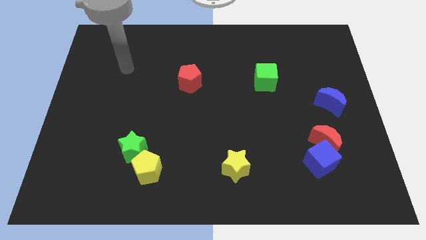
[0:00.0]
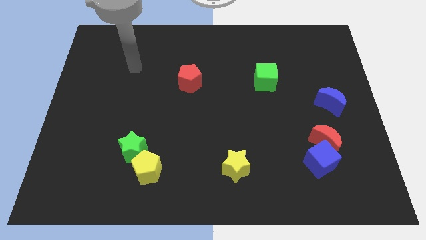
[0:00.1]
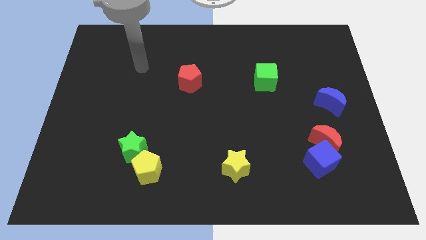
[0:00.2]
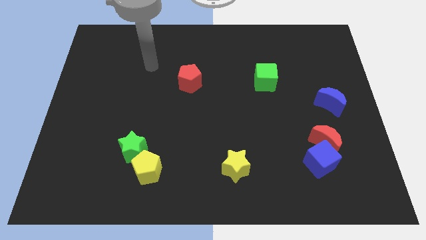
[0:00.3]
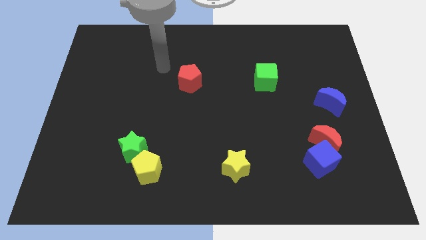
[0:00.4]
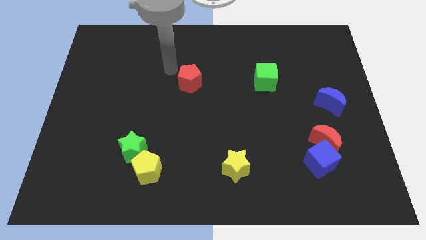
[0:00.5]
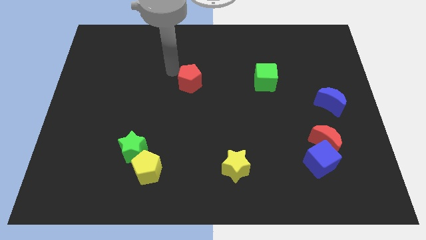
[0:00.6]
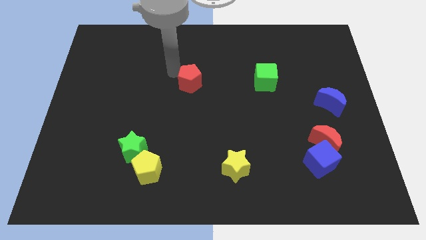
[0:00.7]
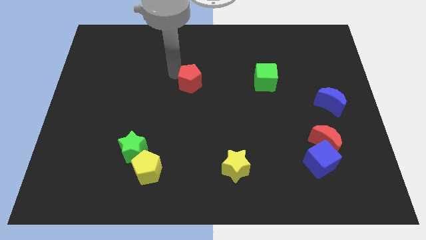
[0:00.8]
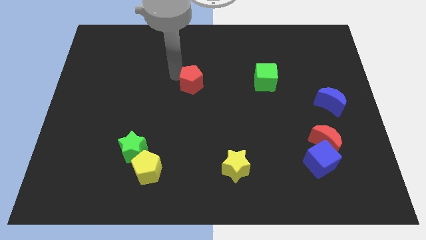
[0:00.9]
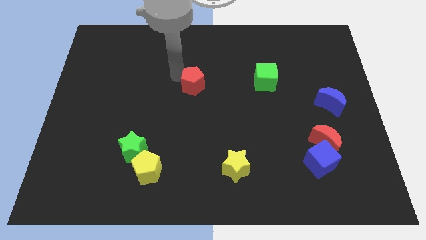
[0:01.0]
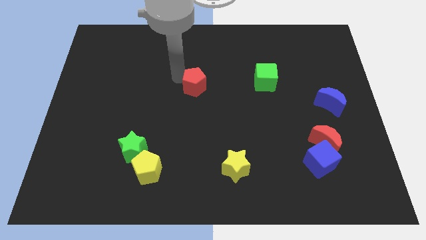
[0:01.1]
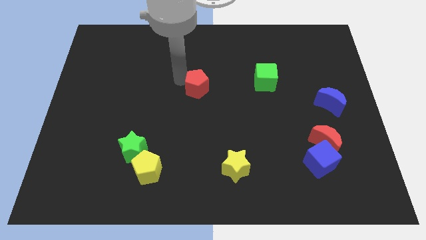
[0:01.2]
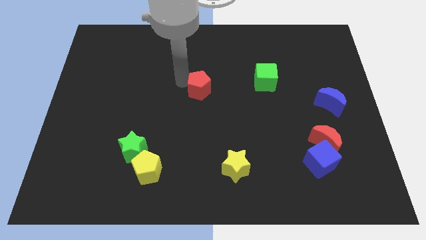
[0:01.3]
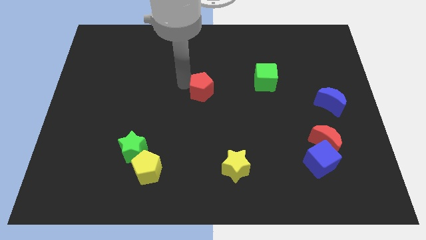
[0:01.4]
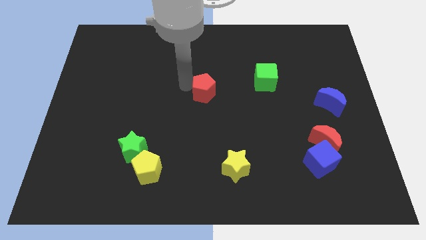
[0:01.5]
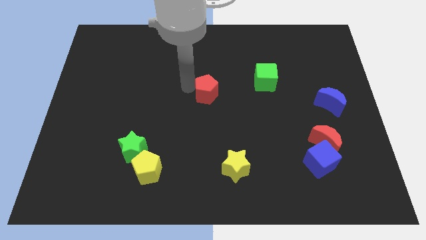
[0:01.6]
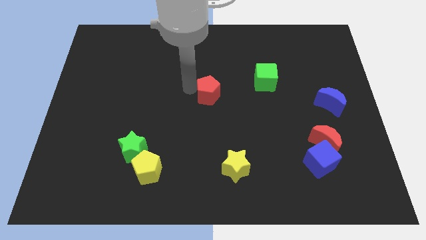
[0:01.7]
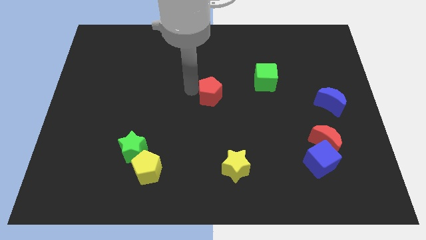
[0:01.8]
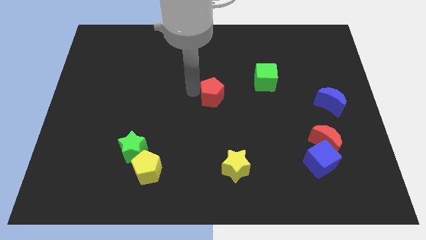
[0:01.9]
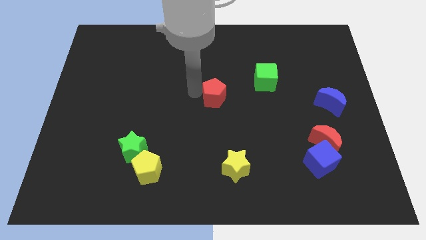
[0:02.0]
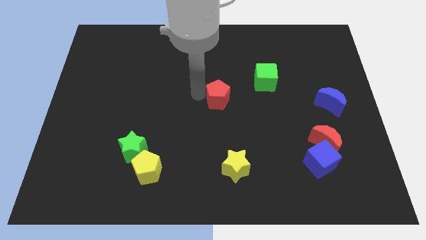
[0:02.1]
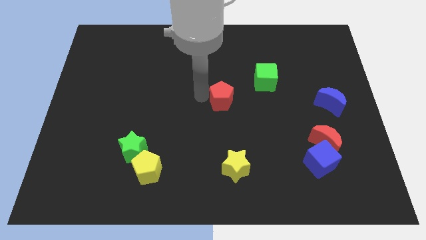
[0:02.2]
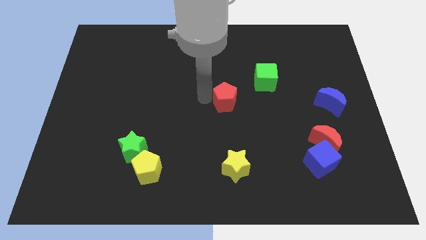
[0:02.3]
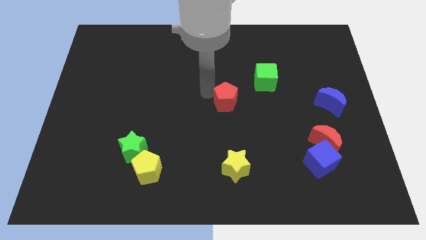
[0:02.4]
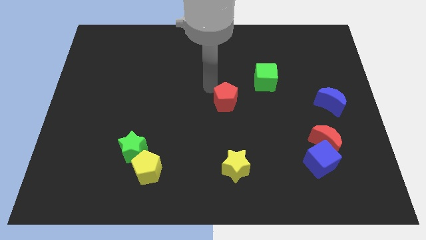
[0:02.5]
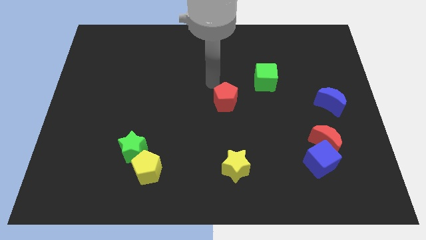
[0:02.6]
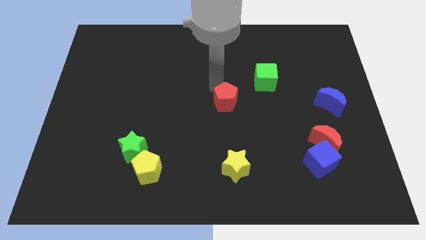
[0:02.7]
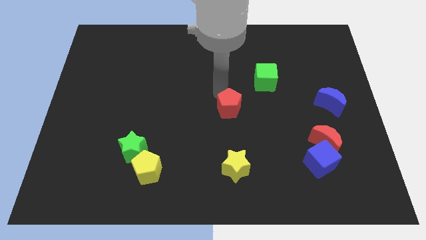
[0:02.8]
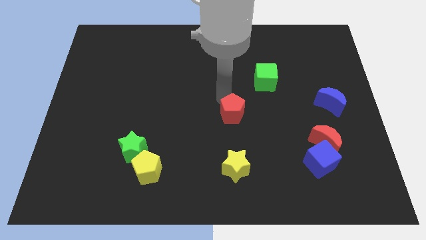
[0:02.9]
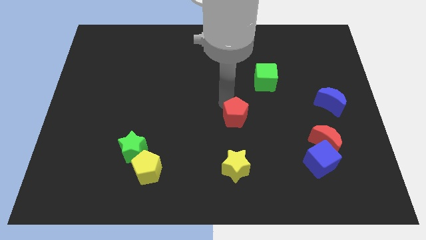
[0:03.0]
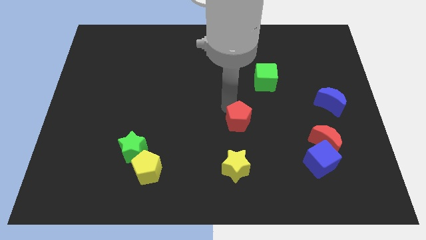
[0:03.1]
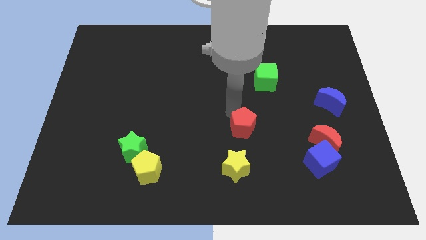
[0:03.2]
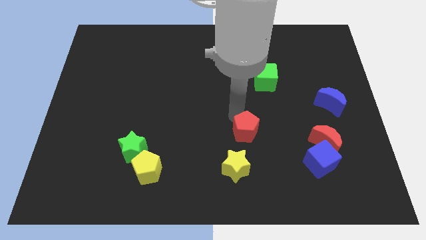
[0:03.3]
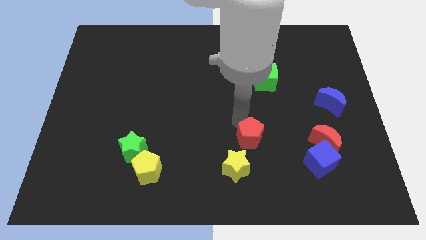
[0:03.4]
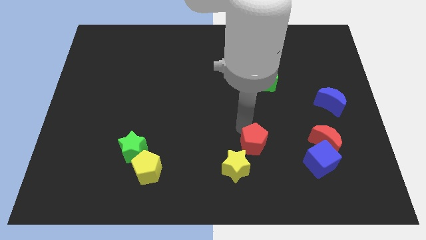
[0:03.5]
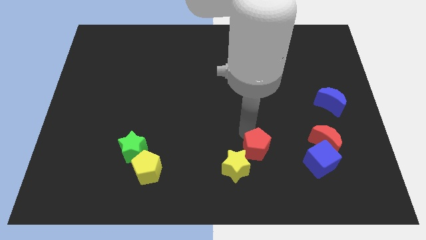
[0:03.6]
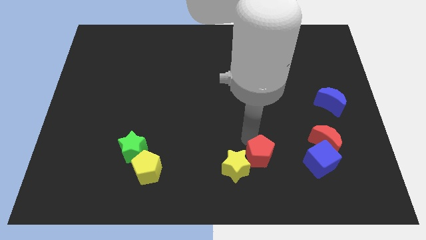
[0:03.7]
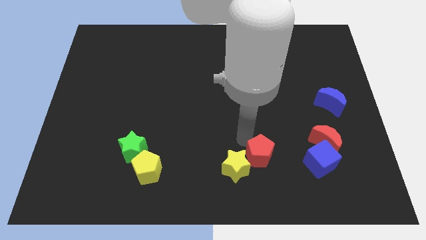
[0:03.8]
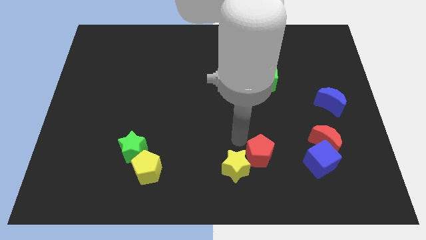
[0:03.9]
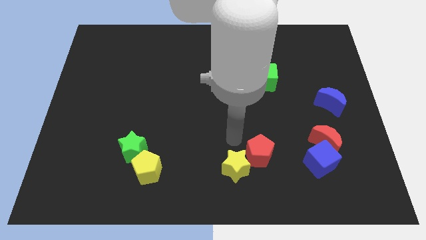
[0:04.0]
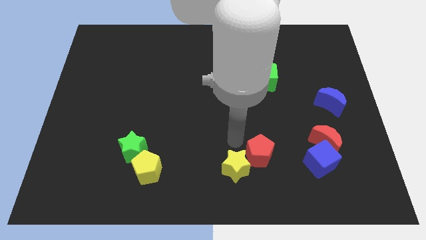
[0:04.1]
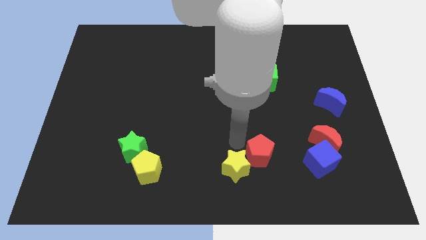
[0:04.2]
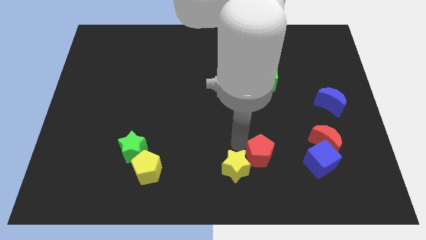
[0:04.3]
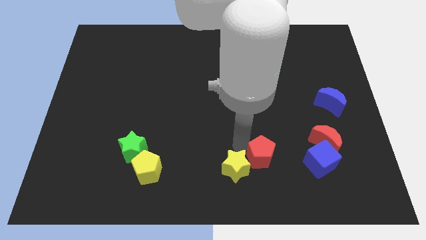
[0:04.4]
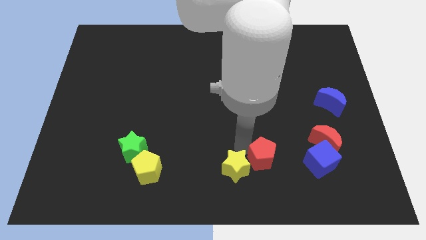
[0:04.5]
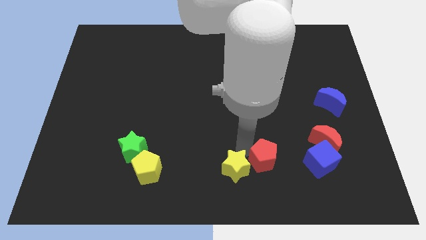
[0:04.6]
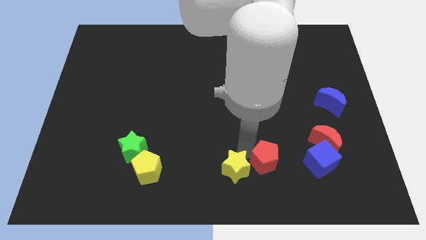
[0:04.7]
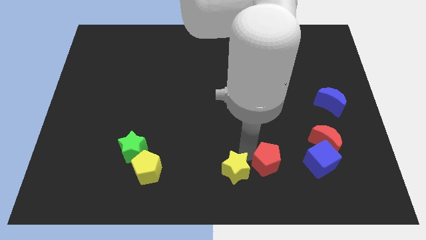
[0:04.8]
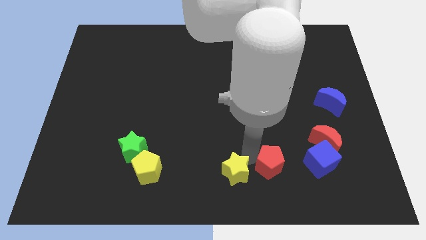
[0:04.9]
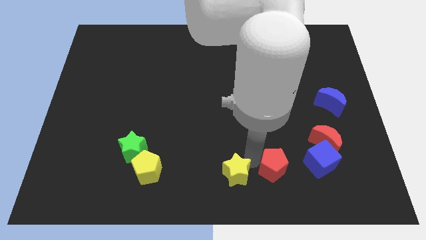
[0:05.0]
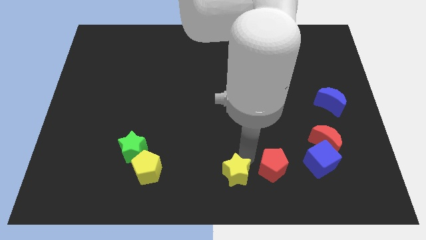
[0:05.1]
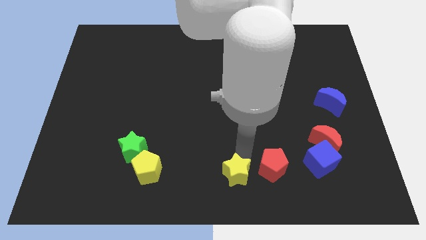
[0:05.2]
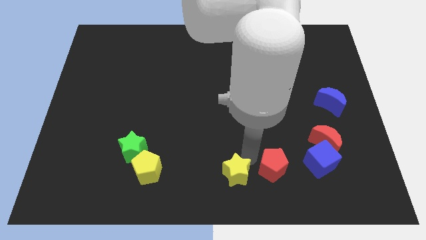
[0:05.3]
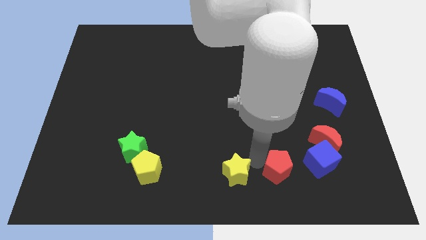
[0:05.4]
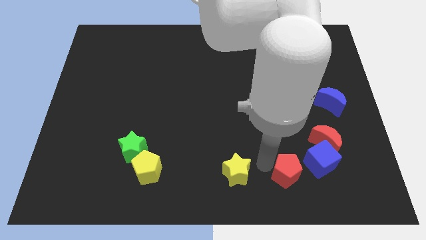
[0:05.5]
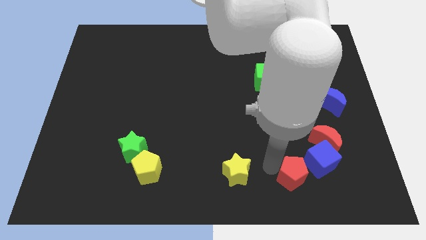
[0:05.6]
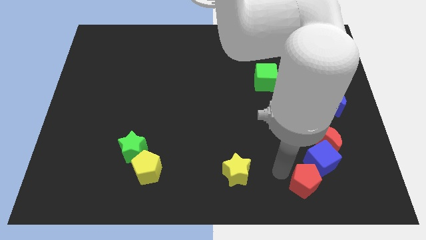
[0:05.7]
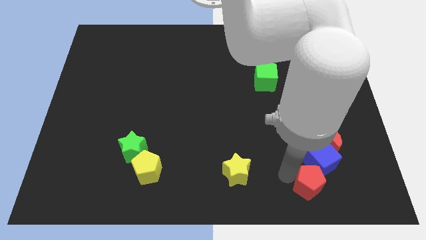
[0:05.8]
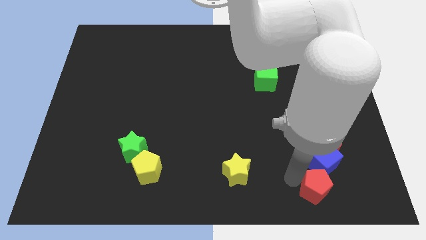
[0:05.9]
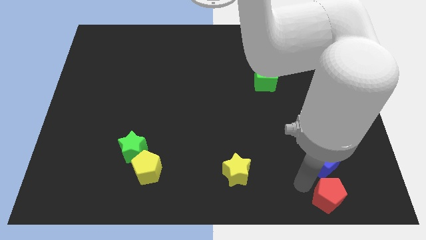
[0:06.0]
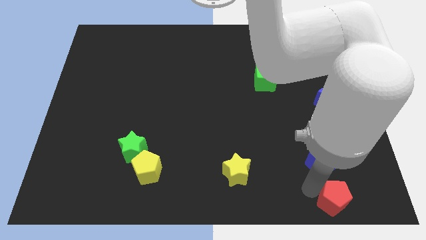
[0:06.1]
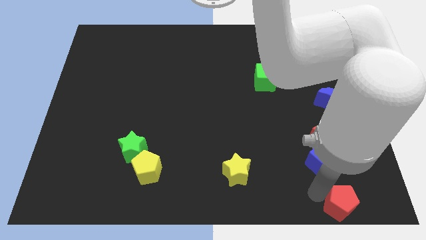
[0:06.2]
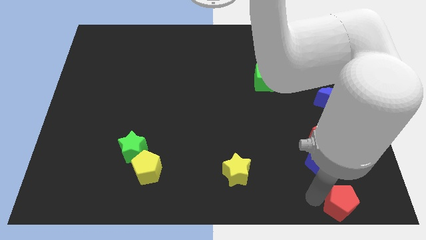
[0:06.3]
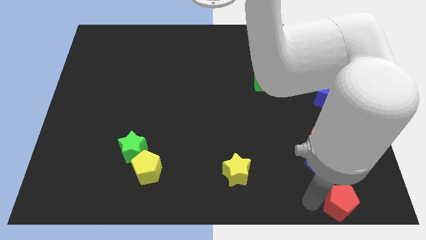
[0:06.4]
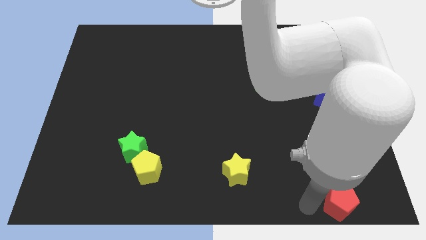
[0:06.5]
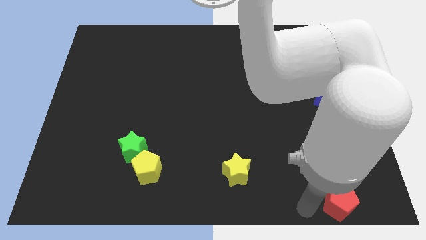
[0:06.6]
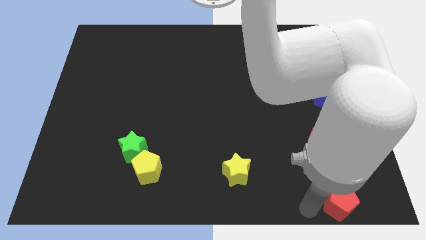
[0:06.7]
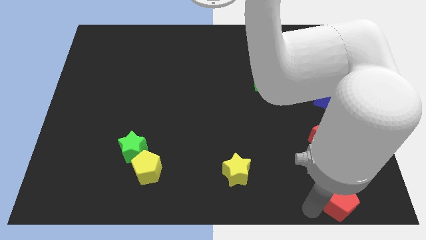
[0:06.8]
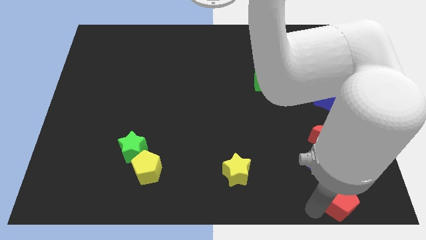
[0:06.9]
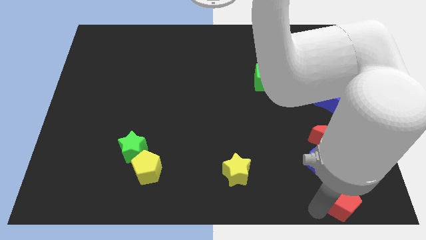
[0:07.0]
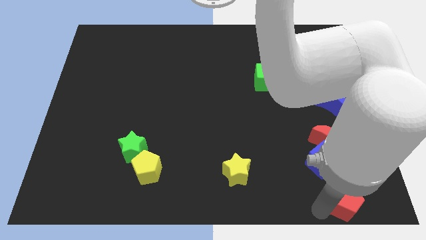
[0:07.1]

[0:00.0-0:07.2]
push the red pentagon to the bottom right corner
